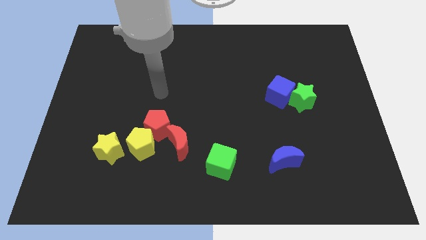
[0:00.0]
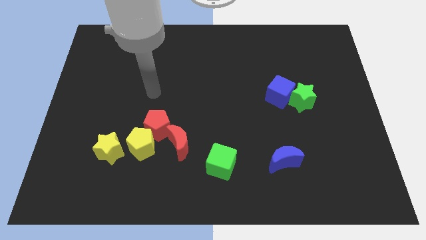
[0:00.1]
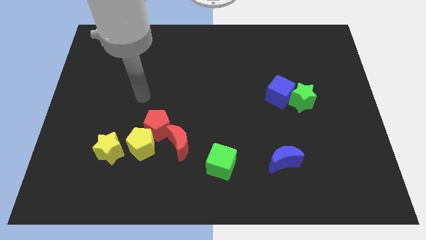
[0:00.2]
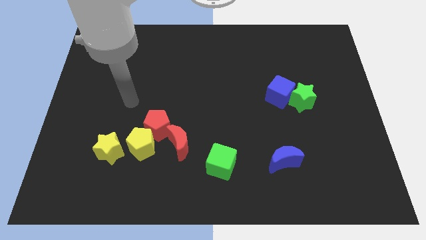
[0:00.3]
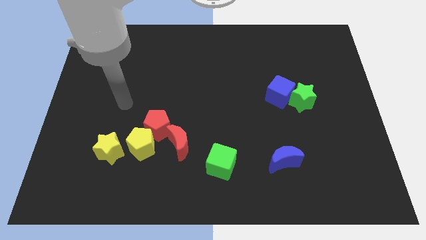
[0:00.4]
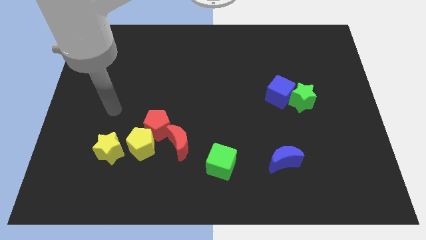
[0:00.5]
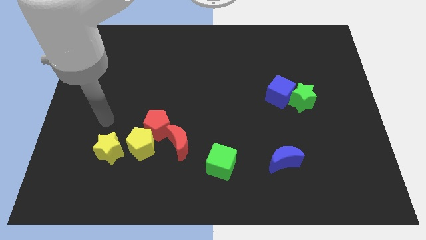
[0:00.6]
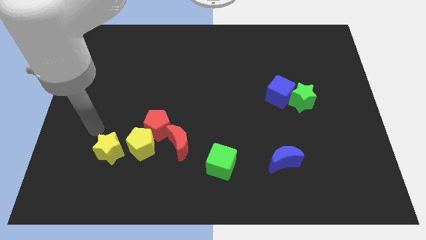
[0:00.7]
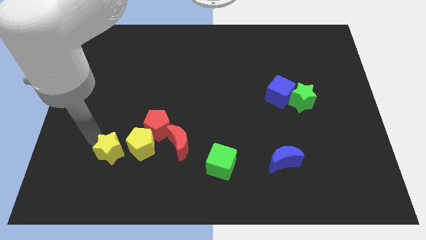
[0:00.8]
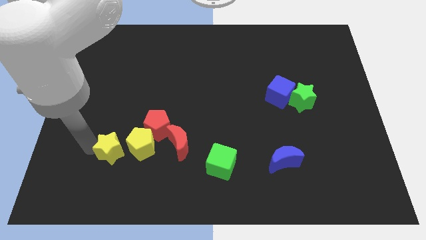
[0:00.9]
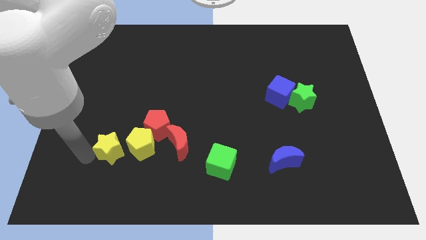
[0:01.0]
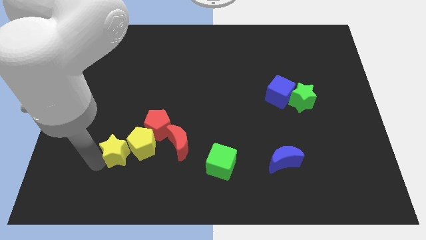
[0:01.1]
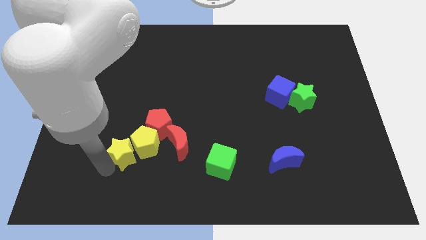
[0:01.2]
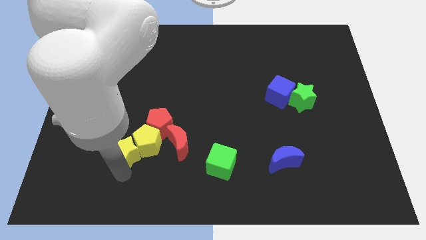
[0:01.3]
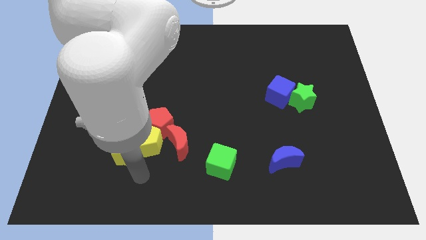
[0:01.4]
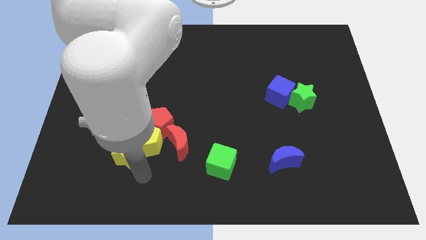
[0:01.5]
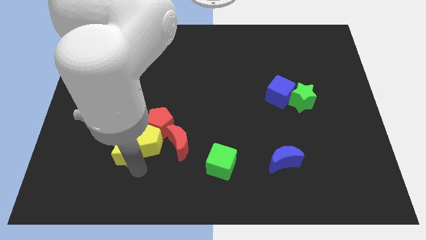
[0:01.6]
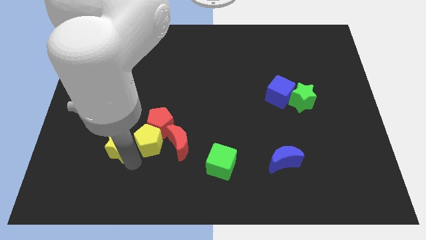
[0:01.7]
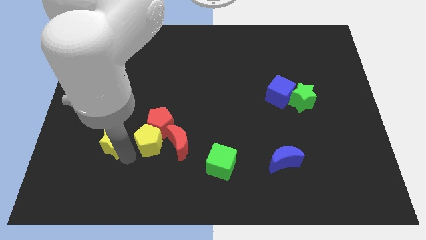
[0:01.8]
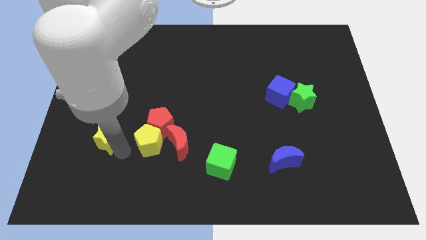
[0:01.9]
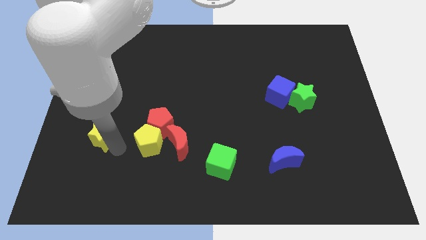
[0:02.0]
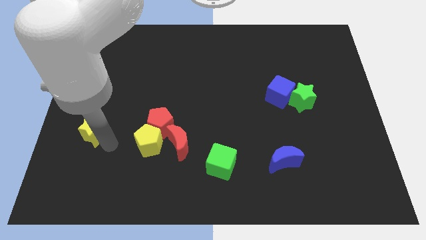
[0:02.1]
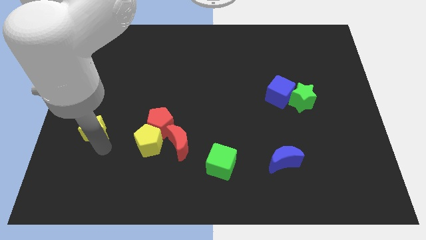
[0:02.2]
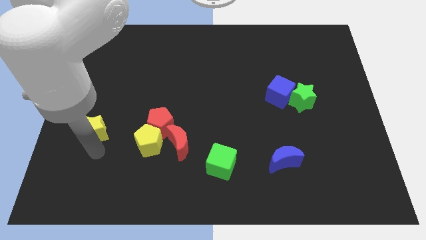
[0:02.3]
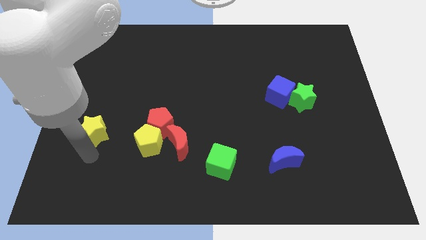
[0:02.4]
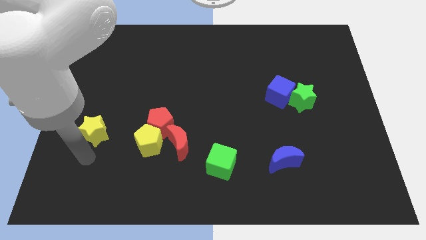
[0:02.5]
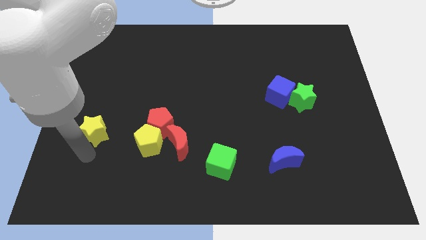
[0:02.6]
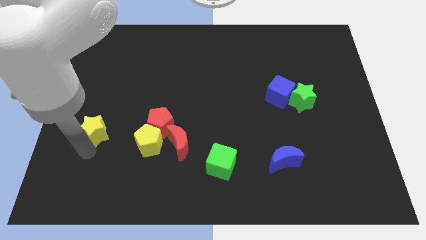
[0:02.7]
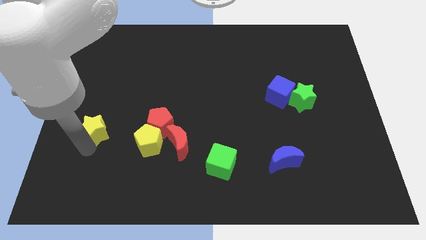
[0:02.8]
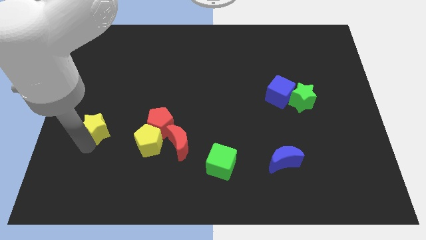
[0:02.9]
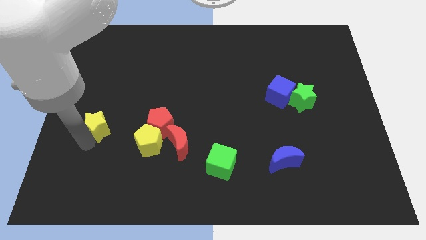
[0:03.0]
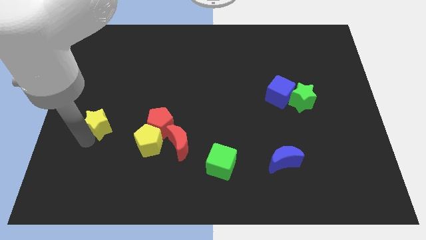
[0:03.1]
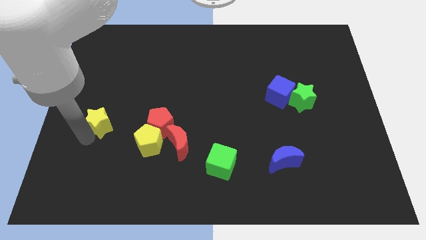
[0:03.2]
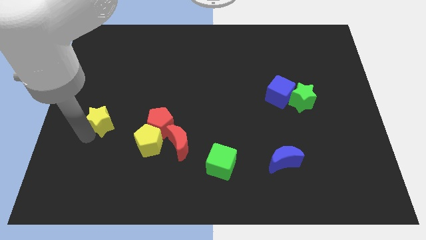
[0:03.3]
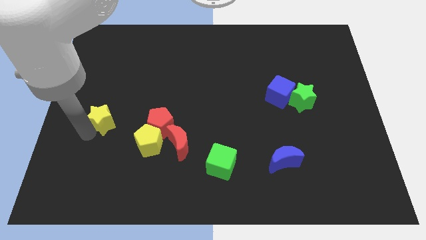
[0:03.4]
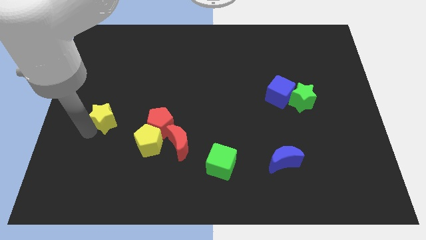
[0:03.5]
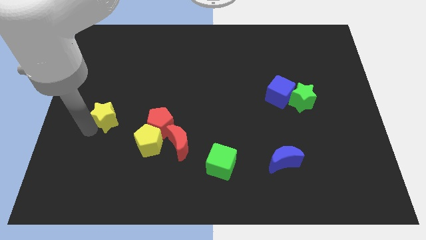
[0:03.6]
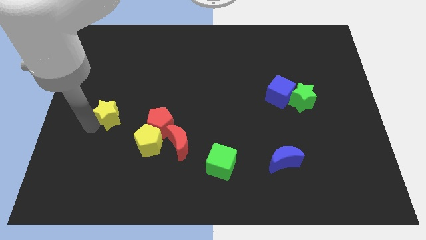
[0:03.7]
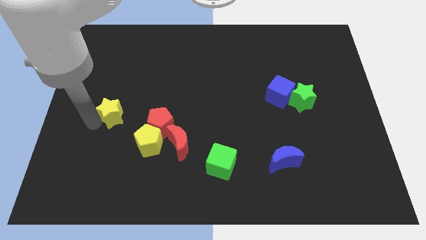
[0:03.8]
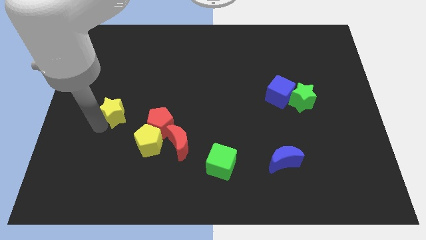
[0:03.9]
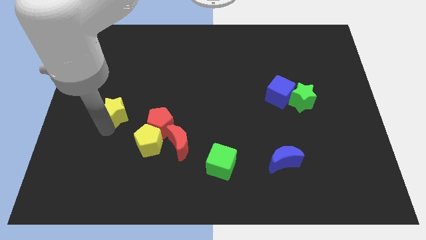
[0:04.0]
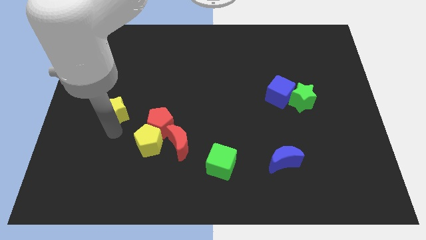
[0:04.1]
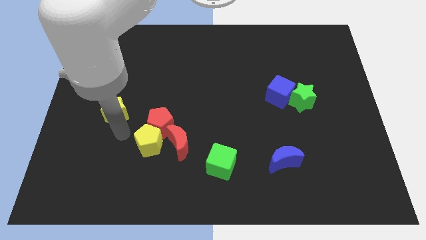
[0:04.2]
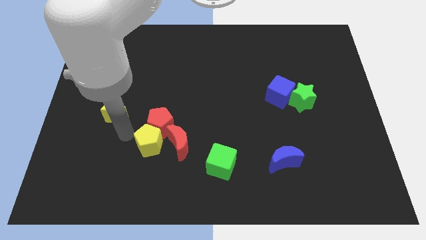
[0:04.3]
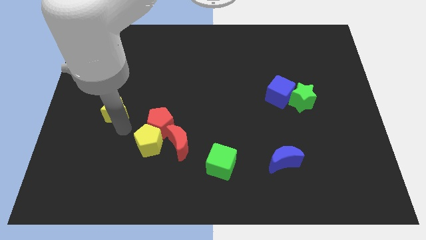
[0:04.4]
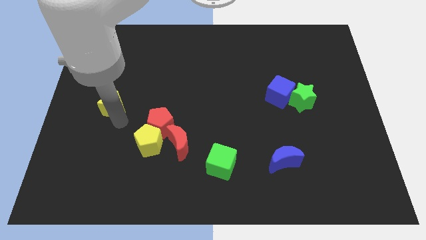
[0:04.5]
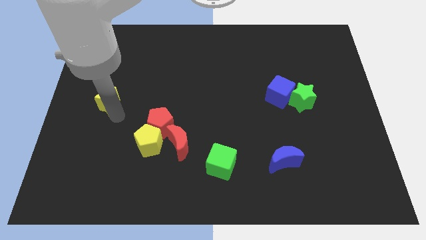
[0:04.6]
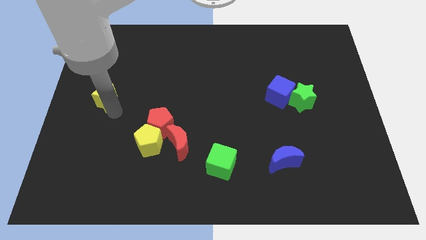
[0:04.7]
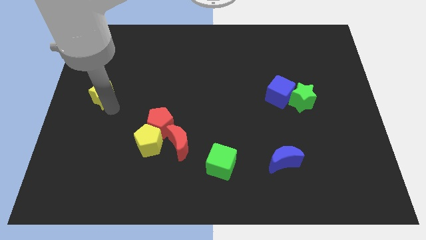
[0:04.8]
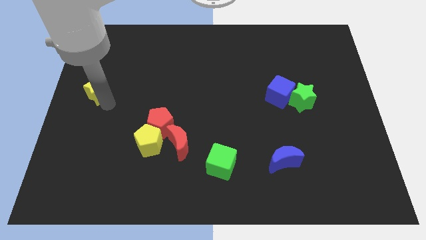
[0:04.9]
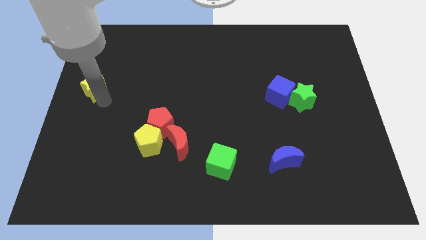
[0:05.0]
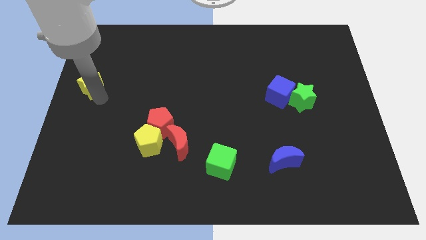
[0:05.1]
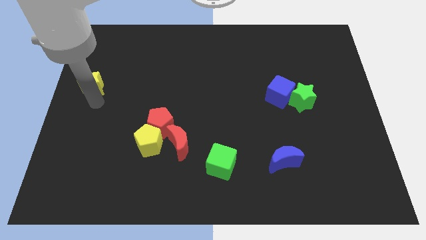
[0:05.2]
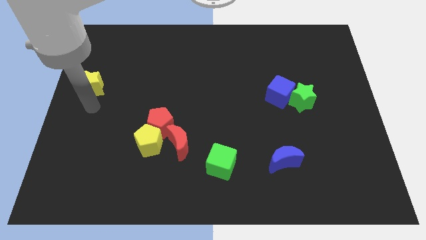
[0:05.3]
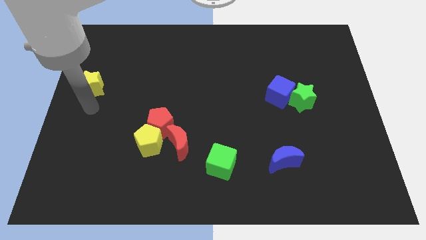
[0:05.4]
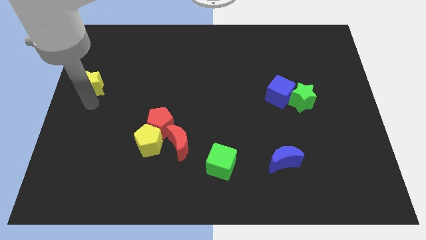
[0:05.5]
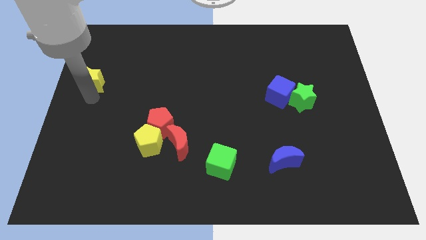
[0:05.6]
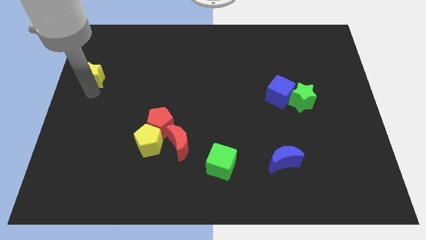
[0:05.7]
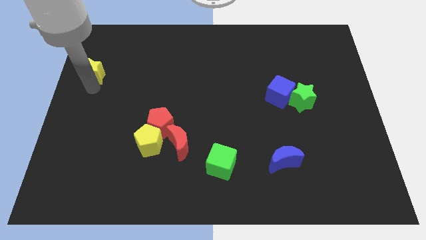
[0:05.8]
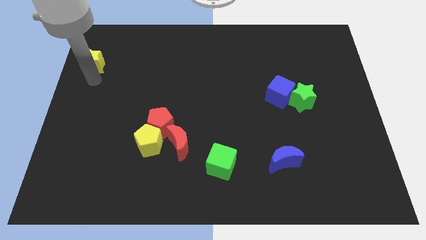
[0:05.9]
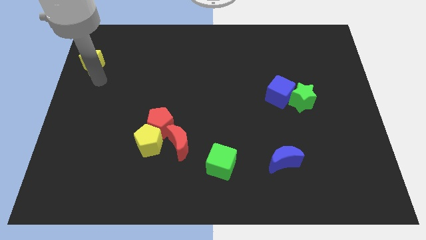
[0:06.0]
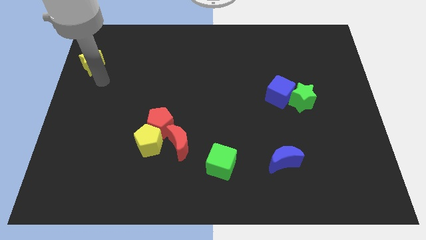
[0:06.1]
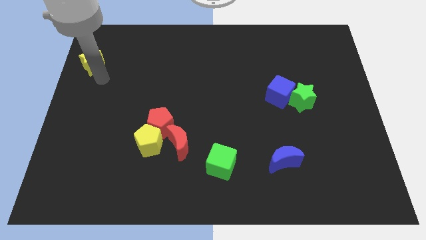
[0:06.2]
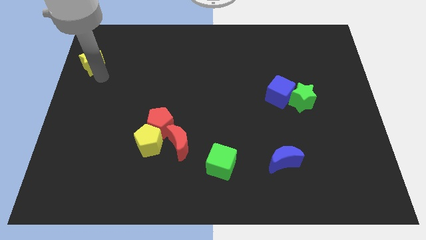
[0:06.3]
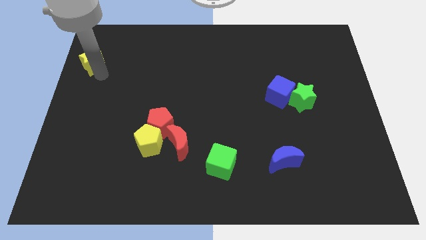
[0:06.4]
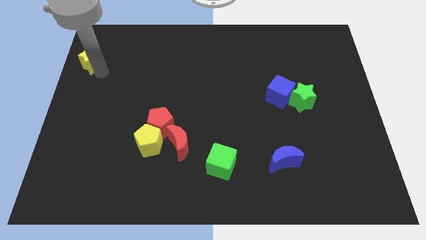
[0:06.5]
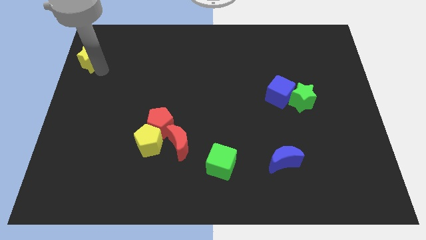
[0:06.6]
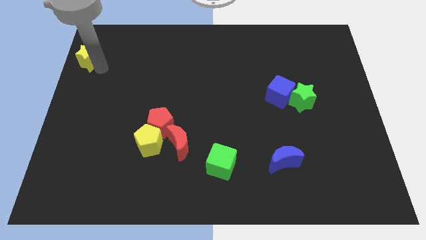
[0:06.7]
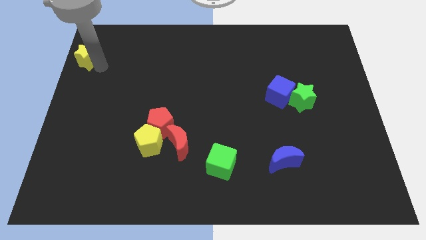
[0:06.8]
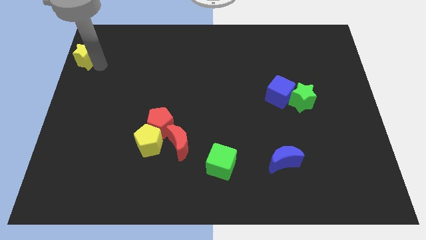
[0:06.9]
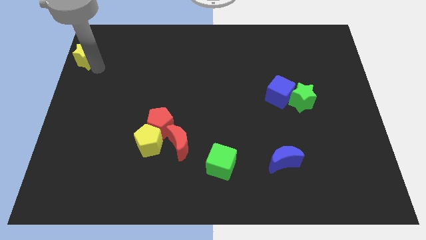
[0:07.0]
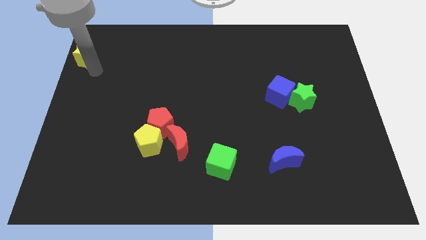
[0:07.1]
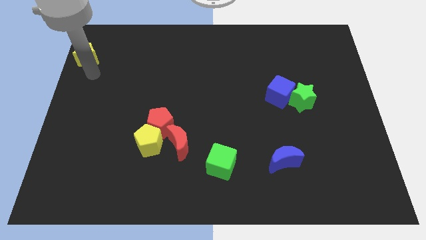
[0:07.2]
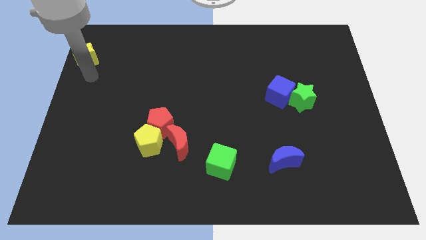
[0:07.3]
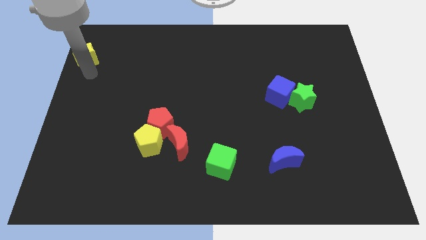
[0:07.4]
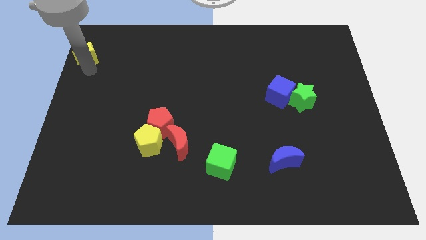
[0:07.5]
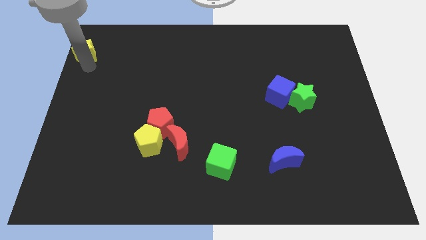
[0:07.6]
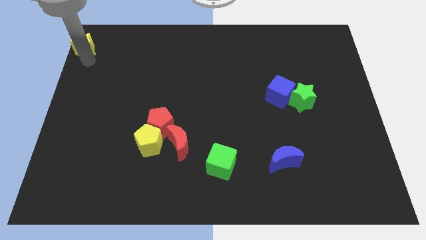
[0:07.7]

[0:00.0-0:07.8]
move the yellow star to the top left of the board
